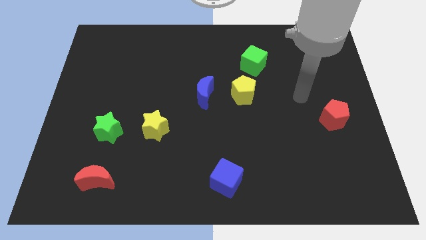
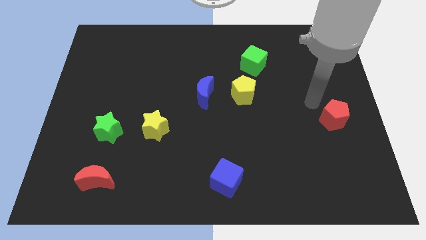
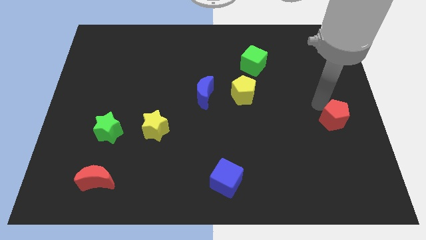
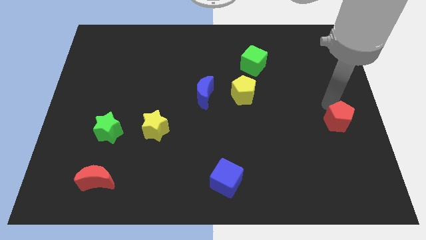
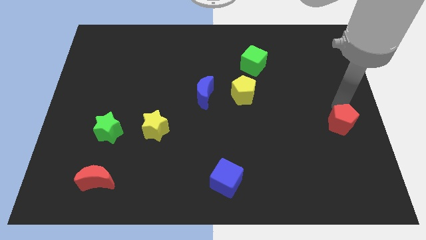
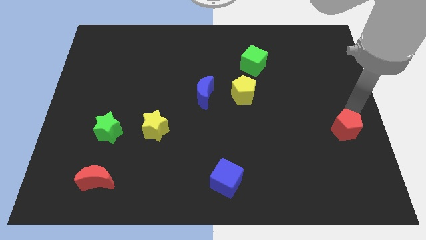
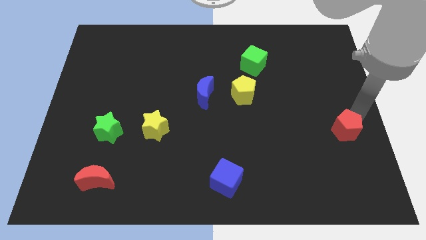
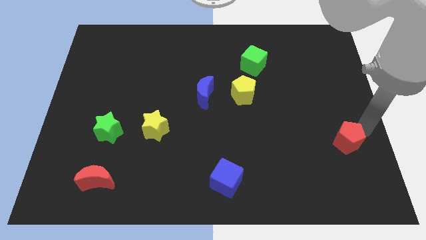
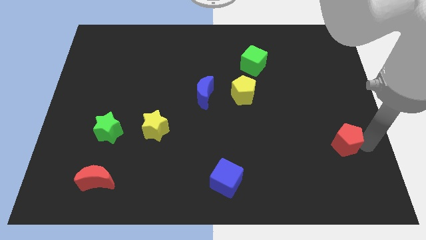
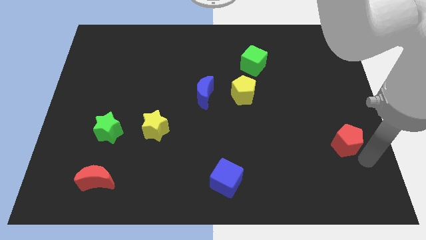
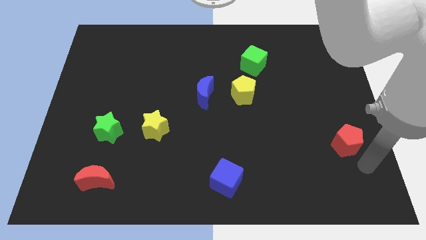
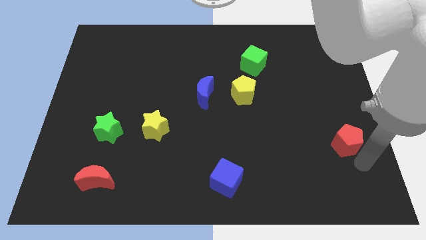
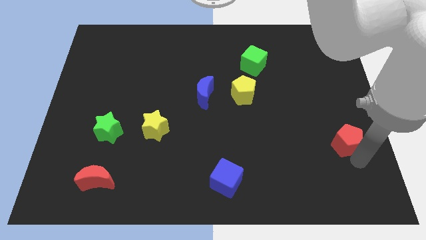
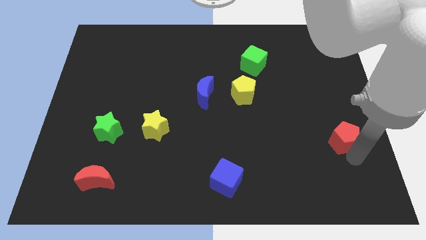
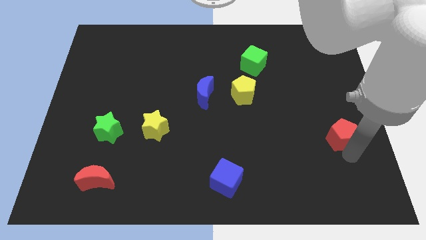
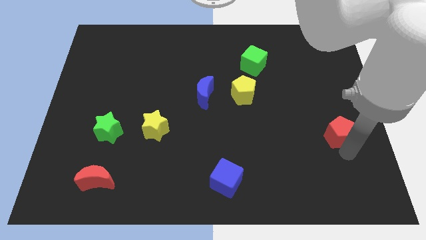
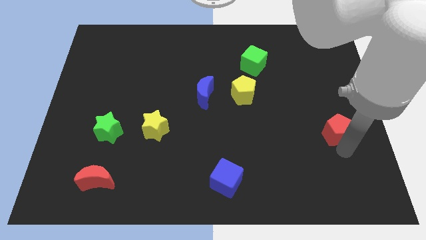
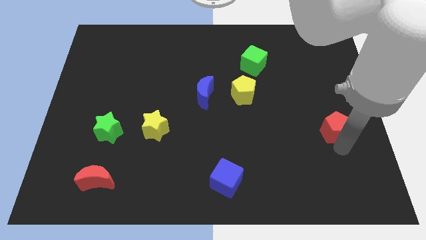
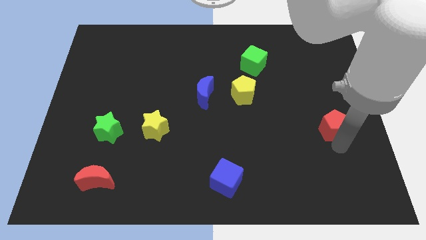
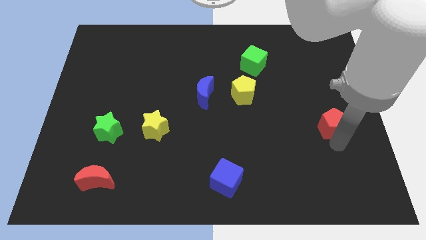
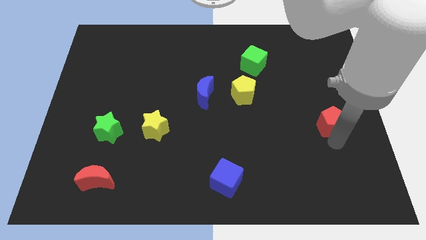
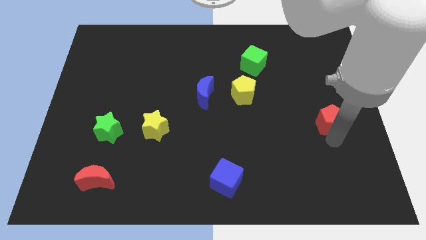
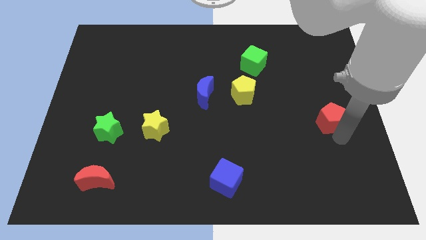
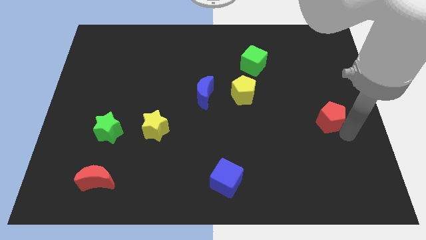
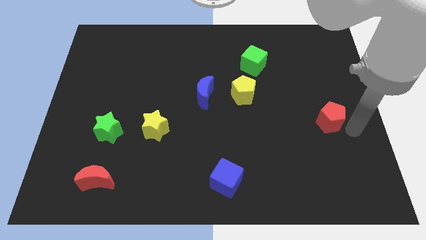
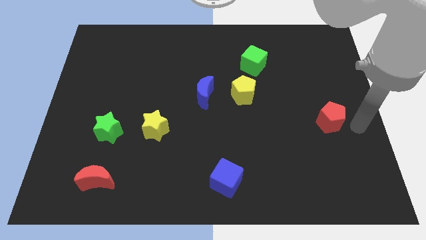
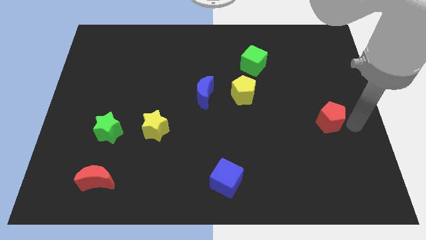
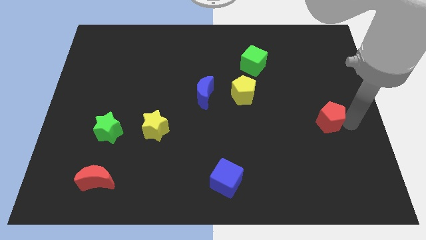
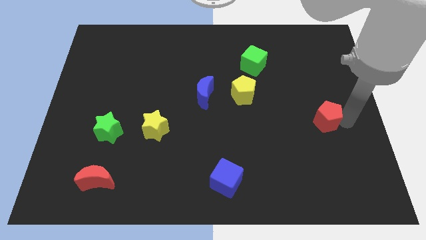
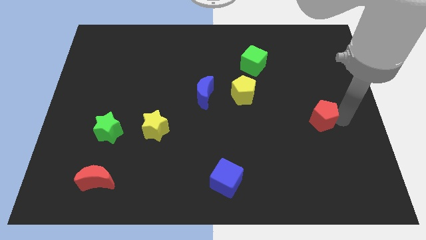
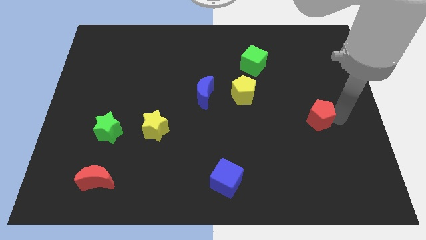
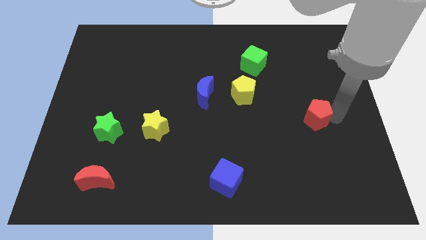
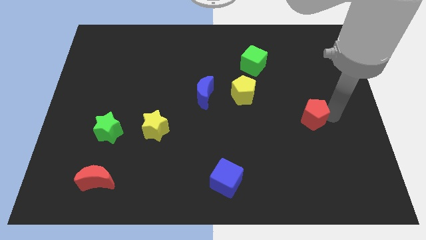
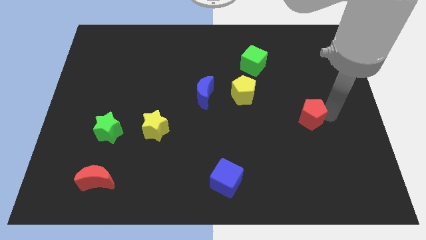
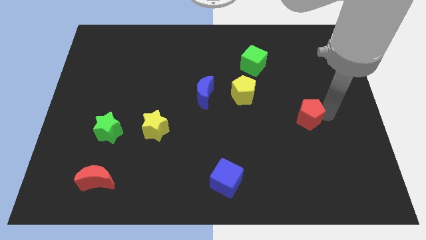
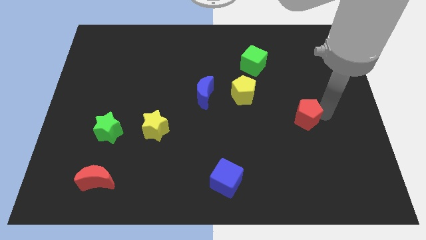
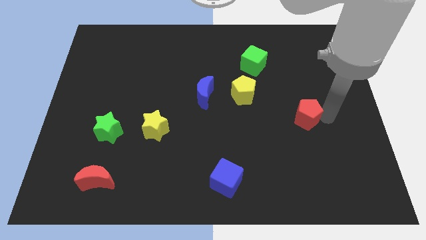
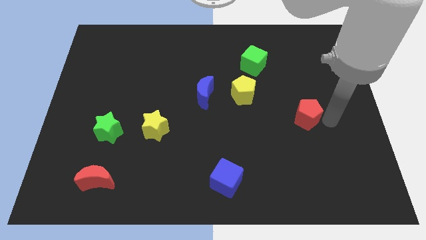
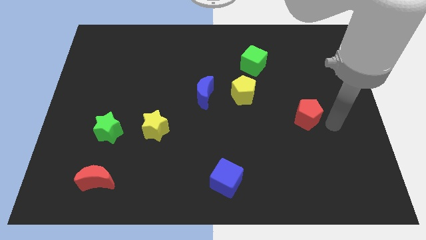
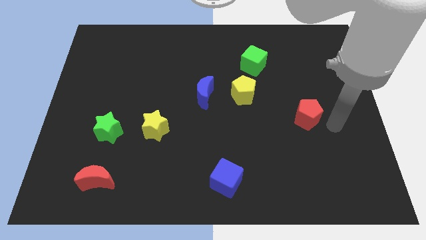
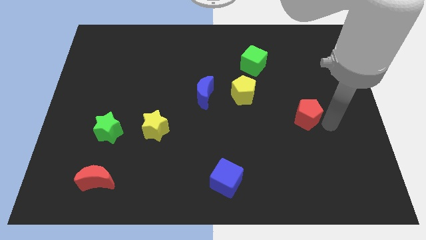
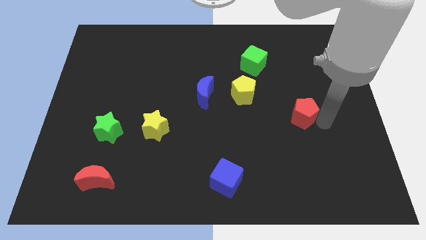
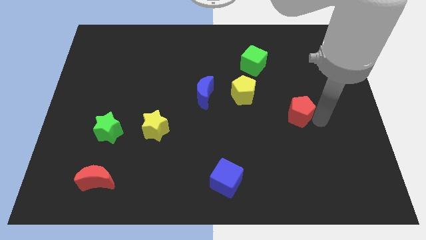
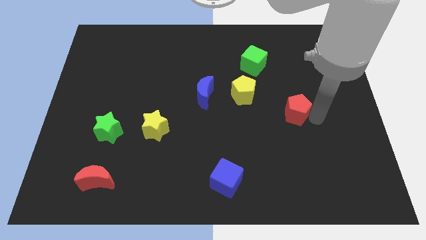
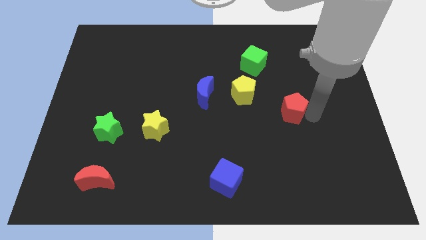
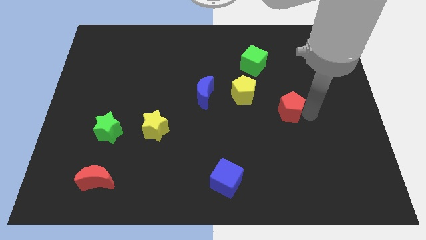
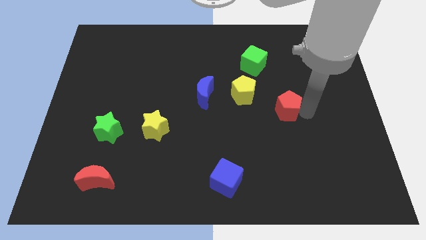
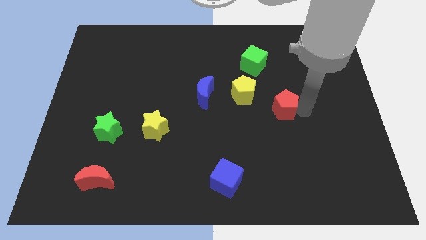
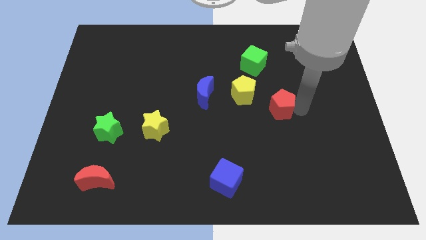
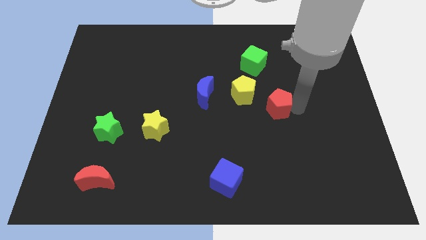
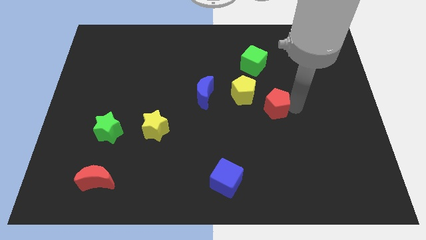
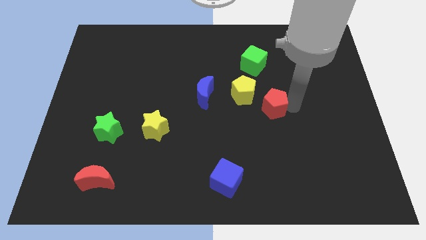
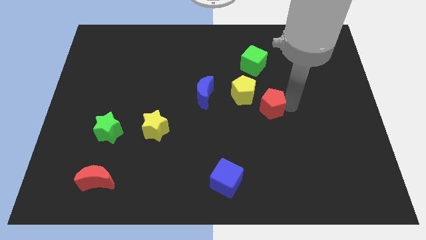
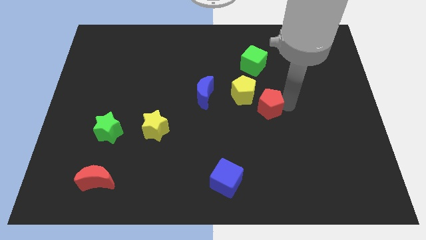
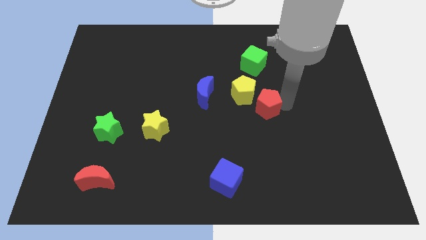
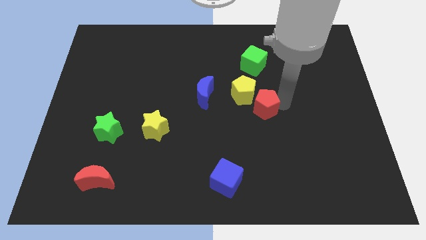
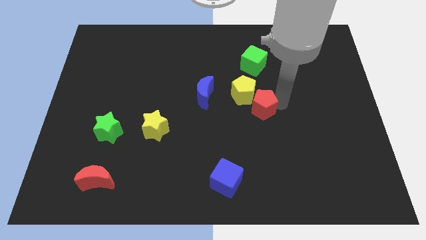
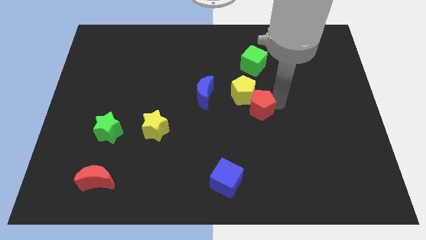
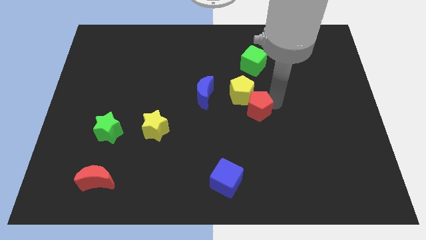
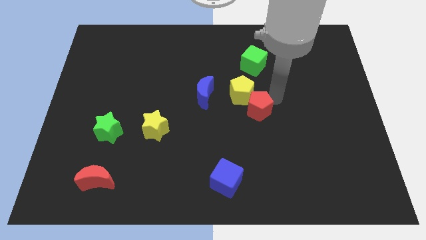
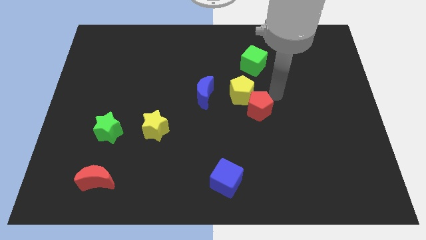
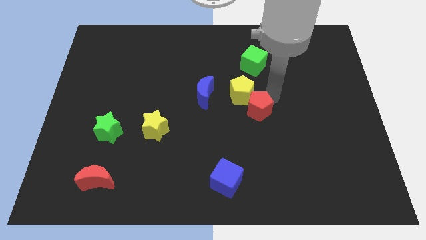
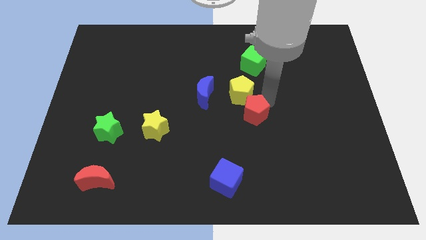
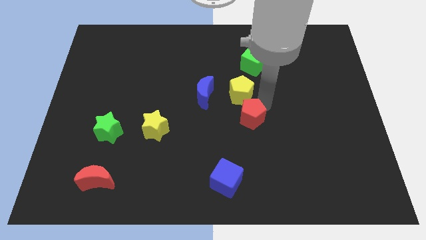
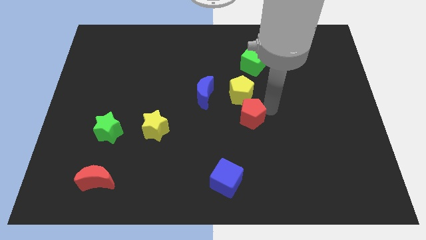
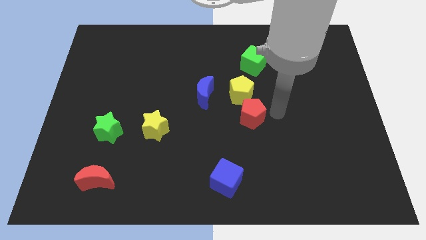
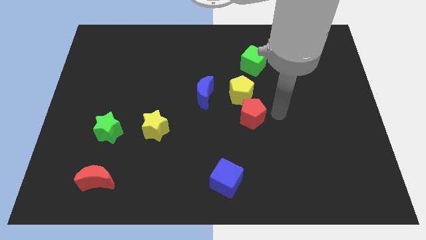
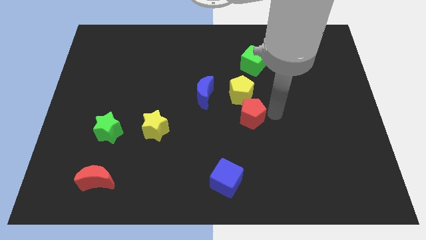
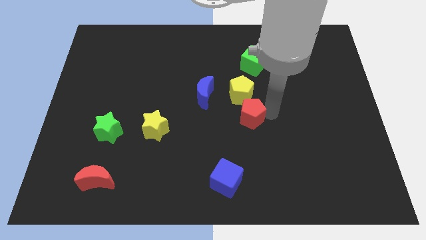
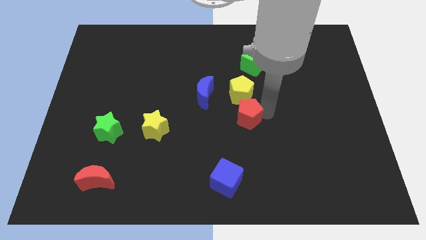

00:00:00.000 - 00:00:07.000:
move the red pentagon left

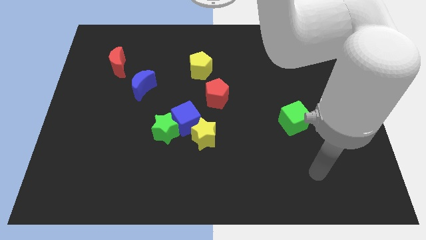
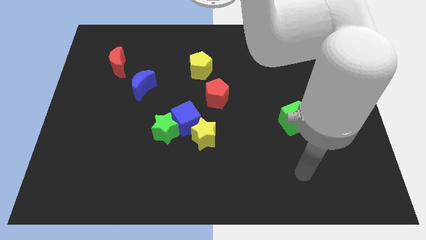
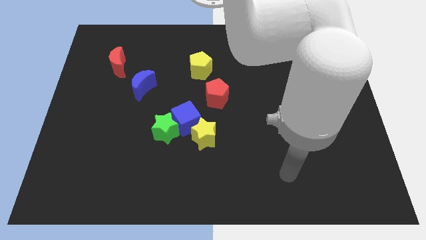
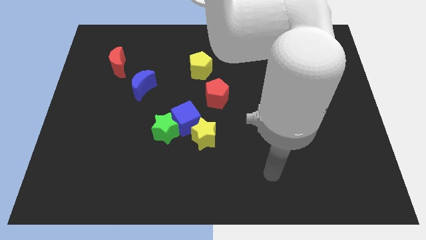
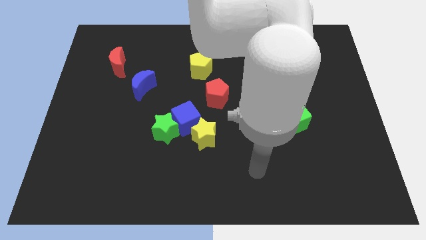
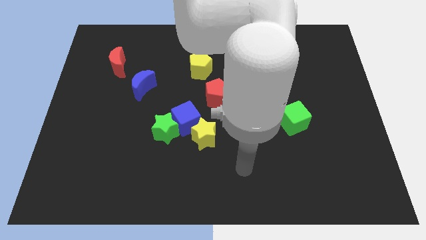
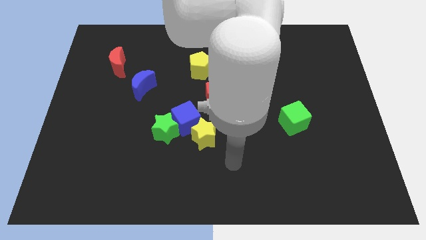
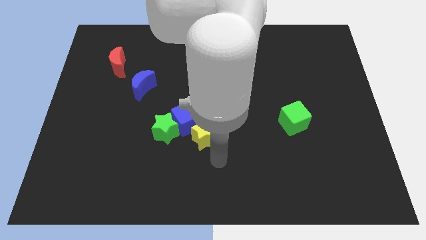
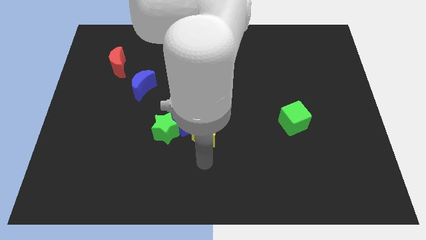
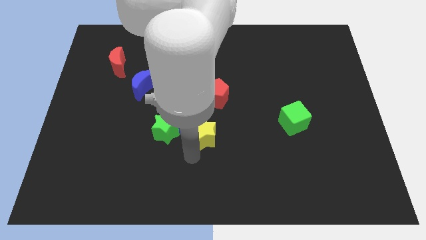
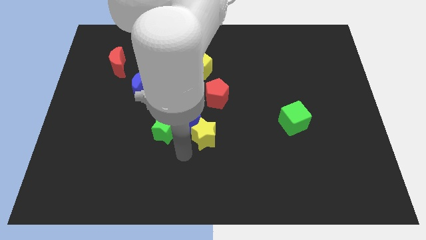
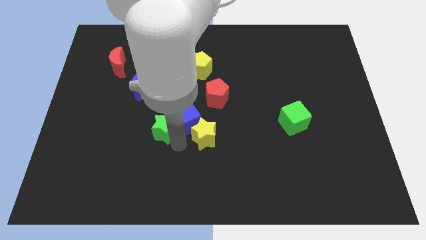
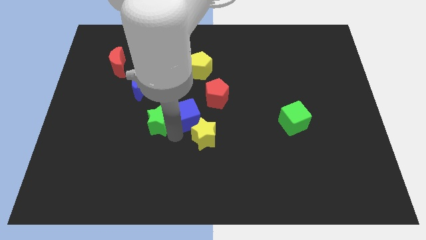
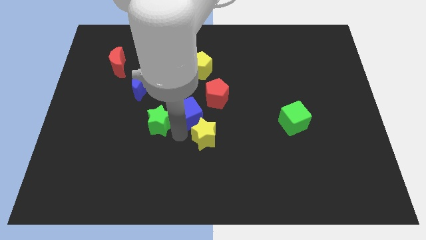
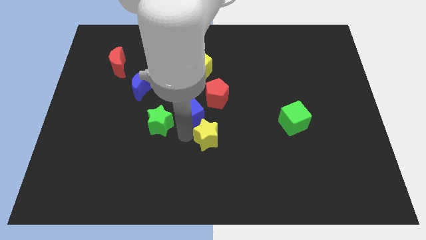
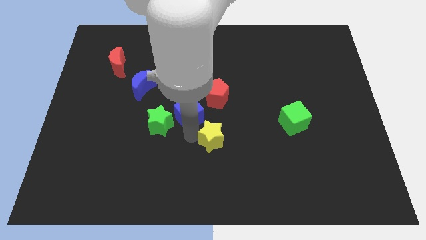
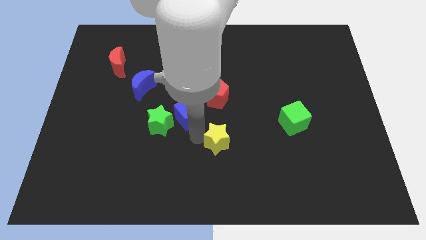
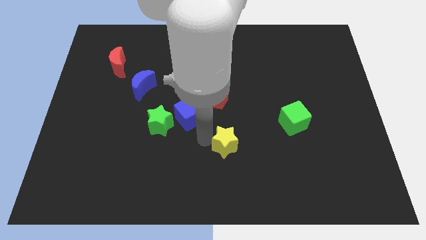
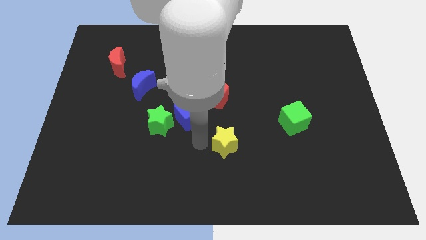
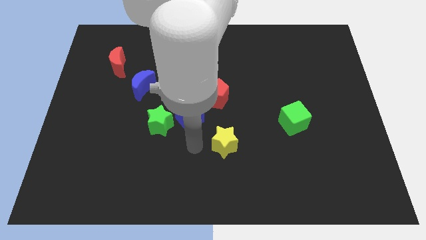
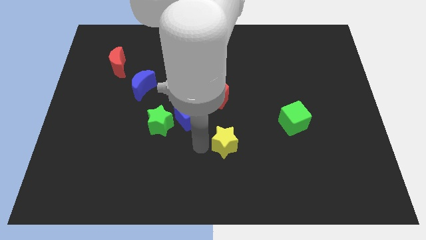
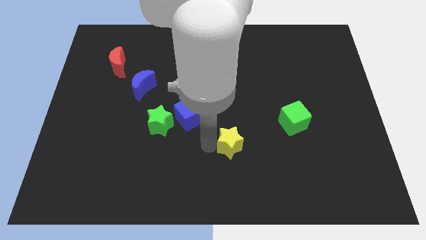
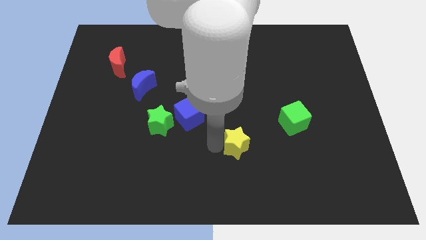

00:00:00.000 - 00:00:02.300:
push the yellow star to the right a little
